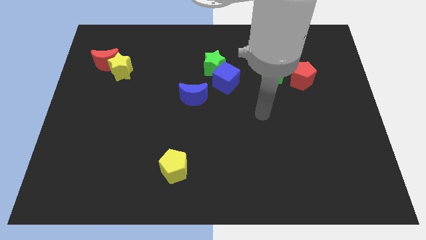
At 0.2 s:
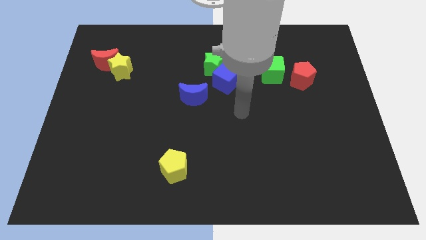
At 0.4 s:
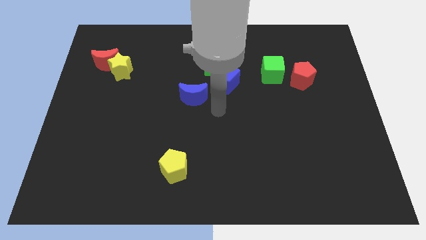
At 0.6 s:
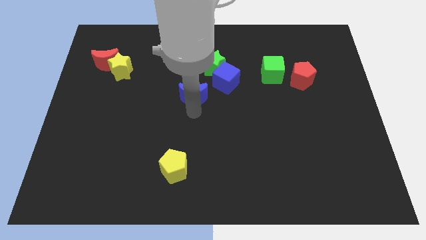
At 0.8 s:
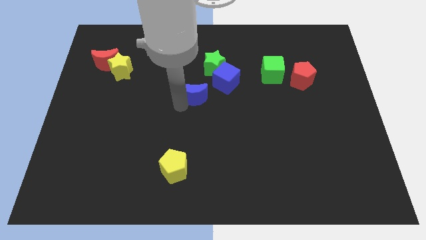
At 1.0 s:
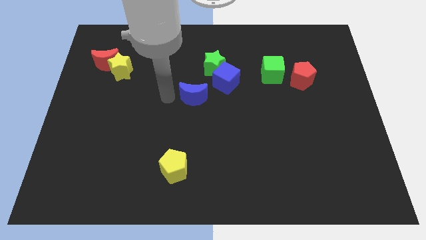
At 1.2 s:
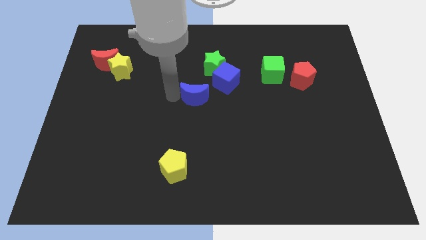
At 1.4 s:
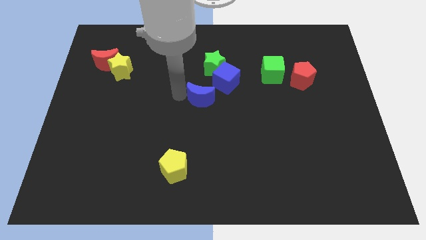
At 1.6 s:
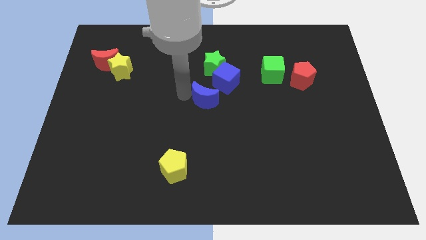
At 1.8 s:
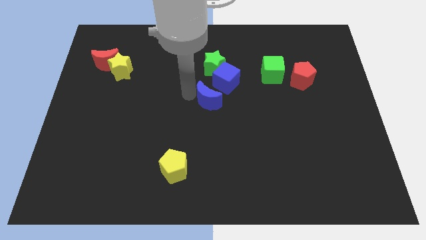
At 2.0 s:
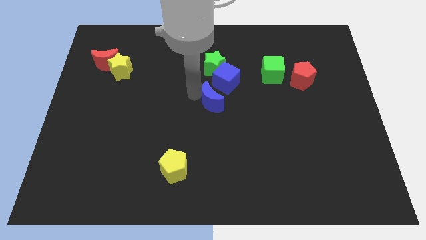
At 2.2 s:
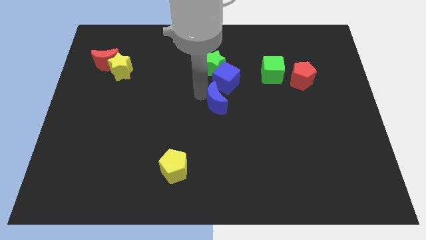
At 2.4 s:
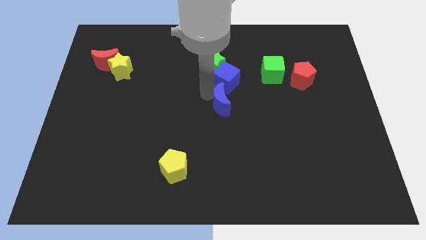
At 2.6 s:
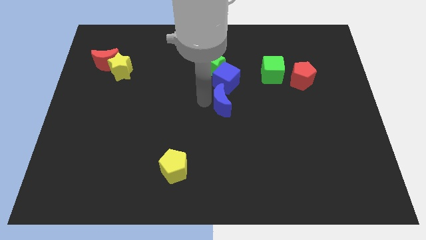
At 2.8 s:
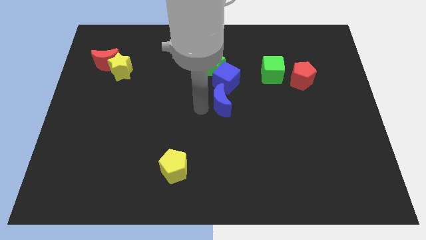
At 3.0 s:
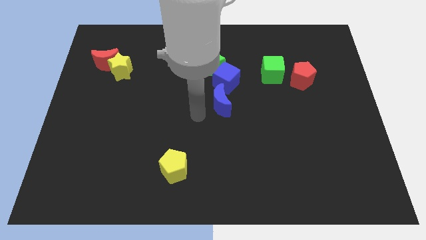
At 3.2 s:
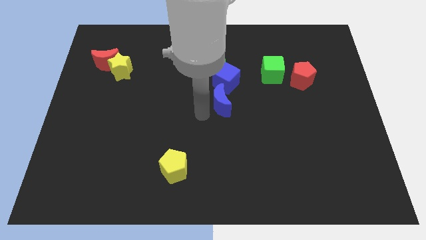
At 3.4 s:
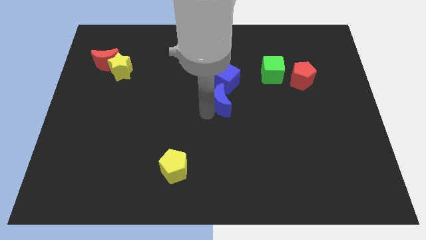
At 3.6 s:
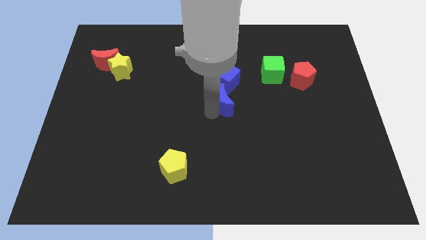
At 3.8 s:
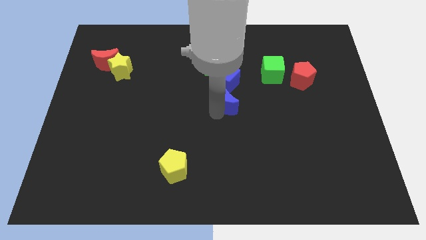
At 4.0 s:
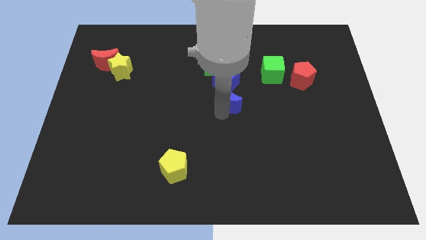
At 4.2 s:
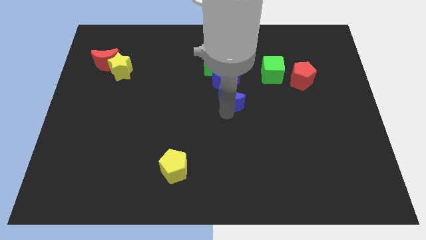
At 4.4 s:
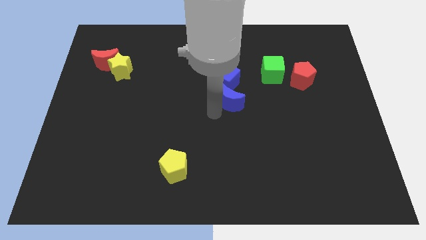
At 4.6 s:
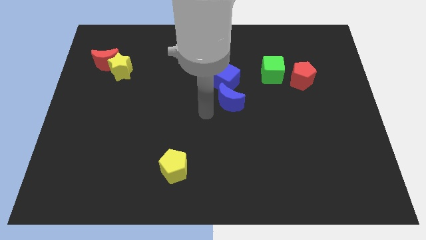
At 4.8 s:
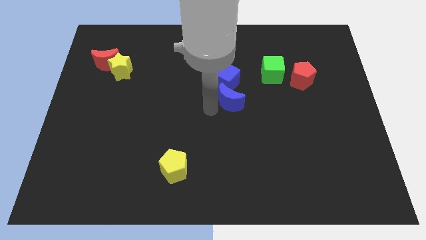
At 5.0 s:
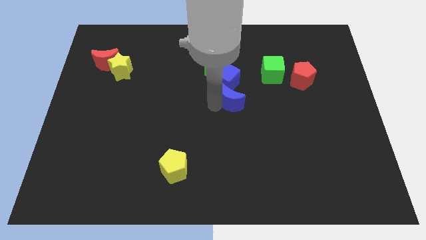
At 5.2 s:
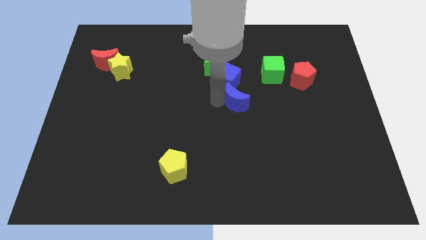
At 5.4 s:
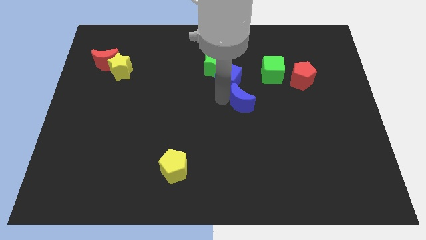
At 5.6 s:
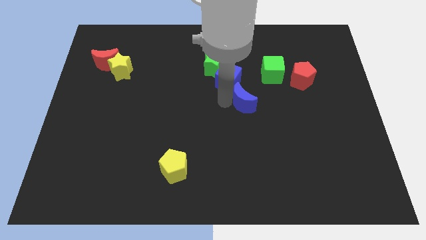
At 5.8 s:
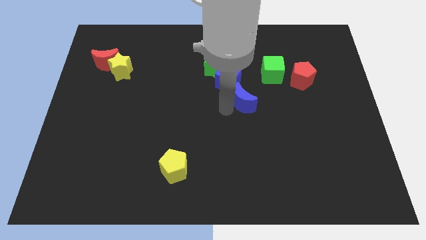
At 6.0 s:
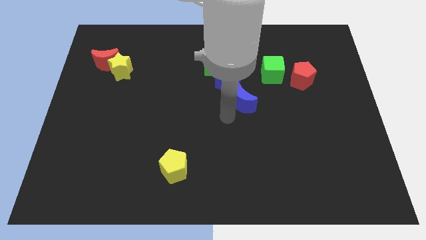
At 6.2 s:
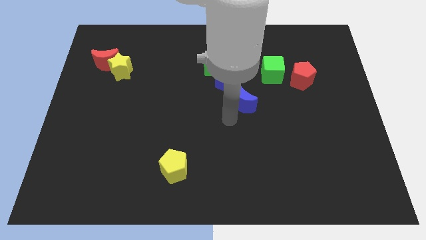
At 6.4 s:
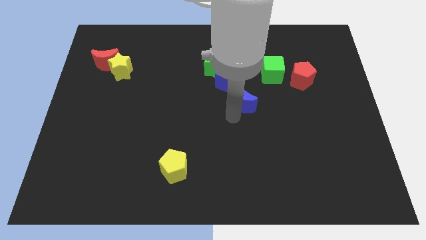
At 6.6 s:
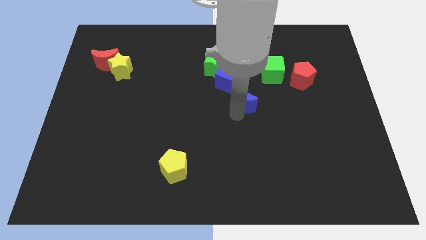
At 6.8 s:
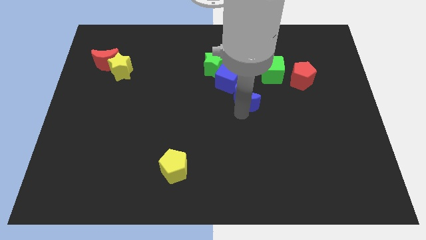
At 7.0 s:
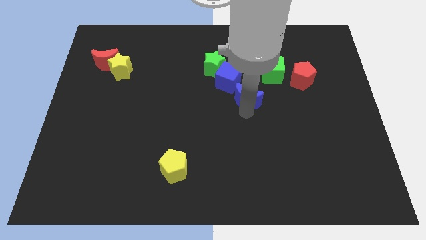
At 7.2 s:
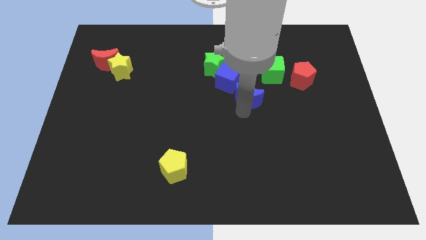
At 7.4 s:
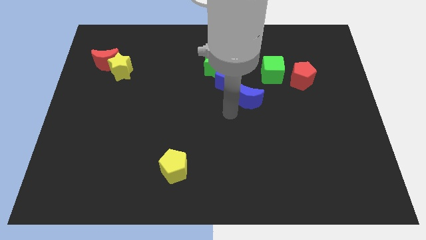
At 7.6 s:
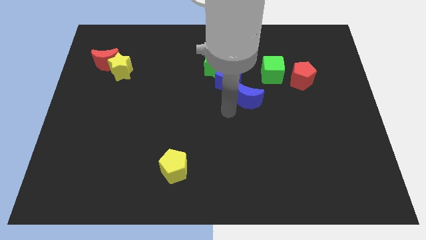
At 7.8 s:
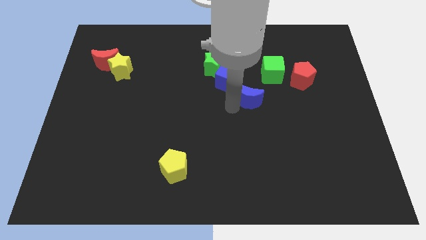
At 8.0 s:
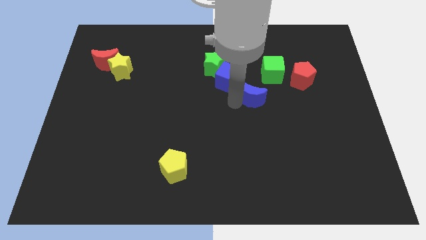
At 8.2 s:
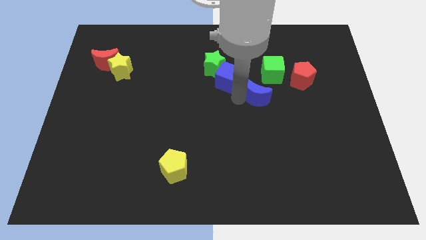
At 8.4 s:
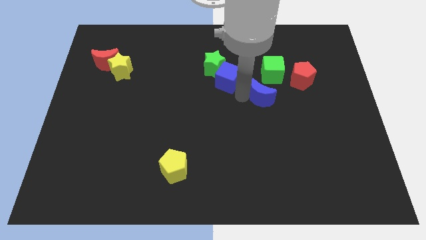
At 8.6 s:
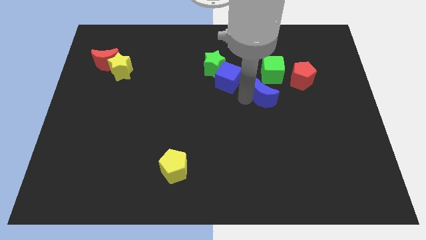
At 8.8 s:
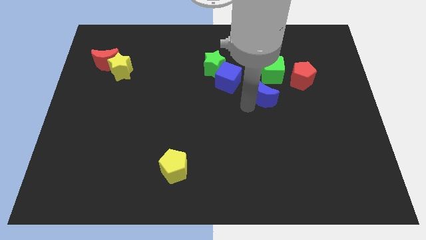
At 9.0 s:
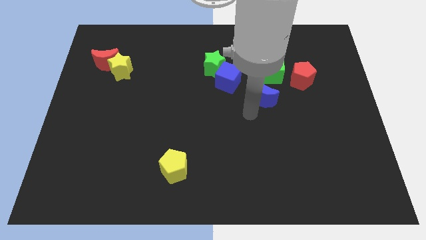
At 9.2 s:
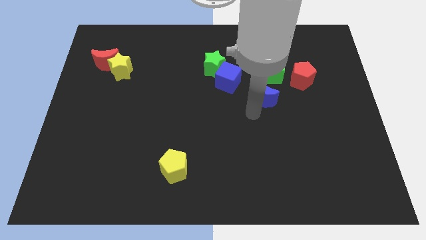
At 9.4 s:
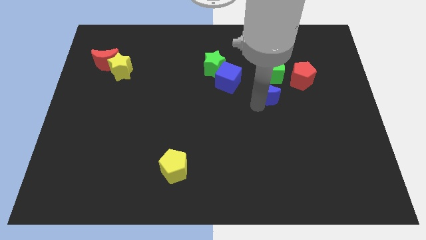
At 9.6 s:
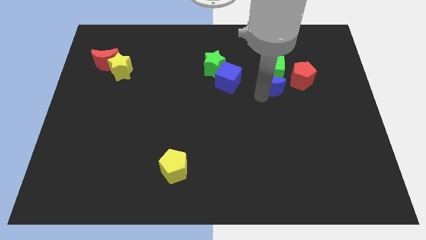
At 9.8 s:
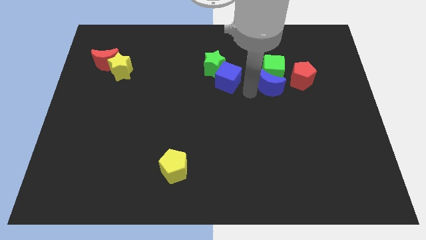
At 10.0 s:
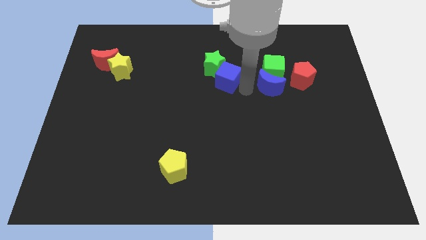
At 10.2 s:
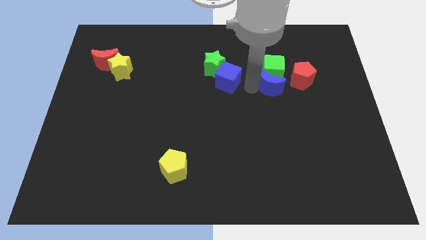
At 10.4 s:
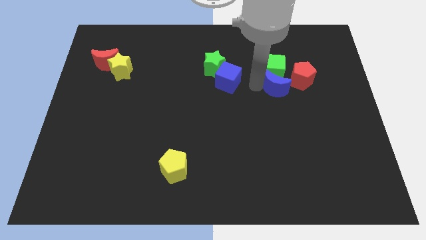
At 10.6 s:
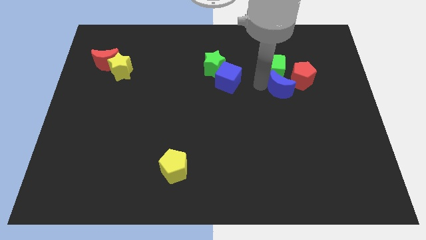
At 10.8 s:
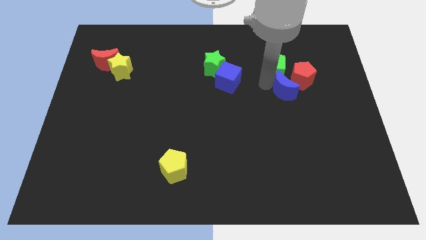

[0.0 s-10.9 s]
put the blue moon close to the red pentagon

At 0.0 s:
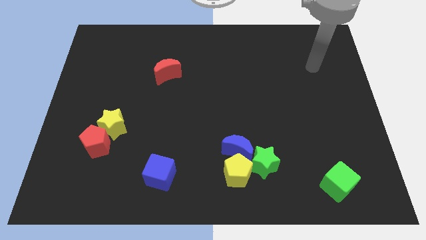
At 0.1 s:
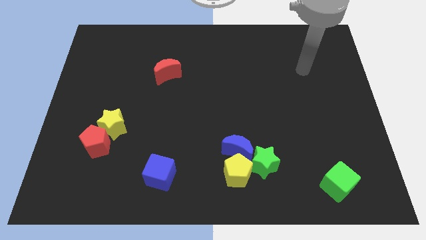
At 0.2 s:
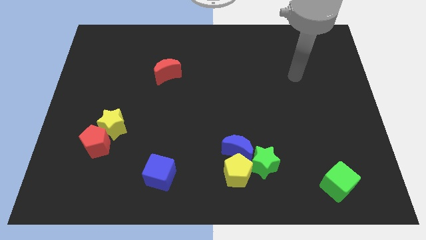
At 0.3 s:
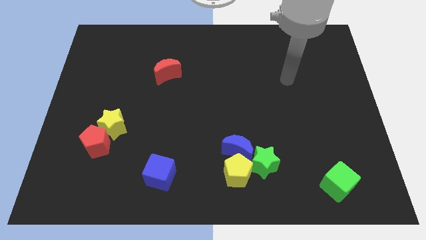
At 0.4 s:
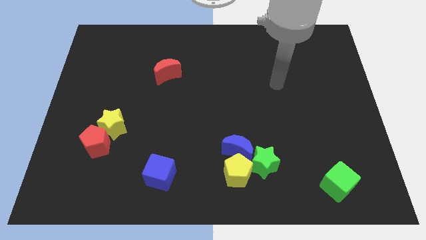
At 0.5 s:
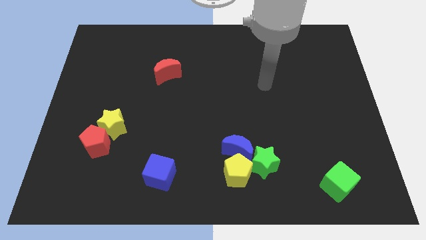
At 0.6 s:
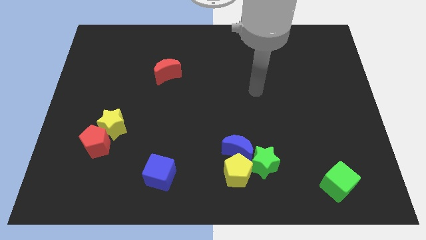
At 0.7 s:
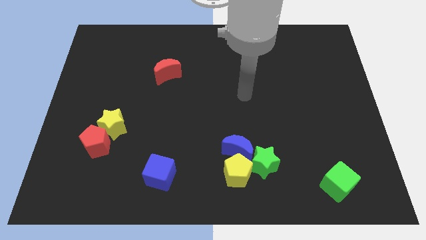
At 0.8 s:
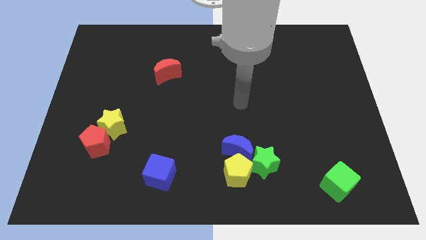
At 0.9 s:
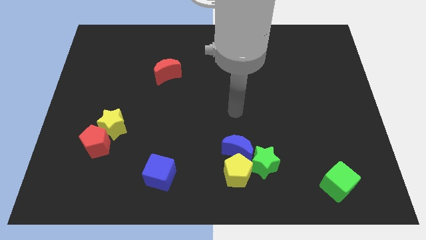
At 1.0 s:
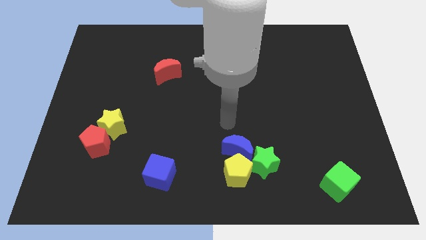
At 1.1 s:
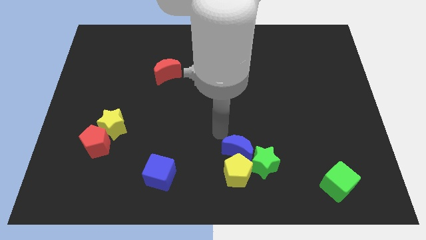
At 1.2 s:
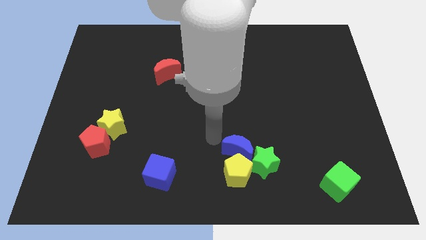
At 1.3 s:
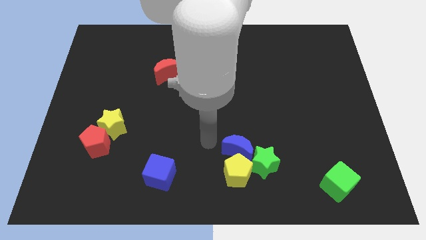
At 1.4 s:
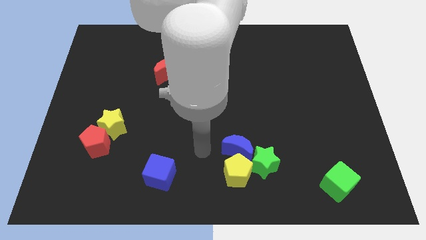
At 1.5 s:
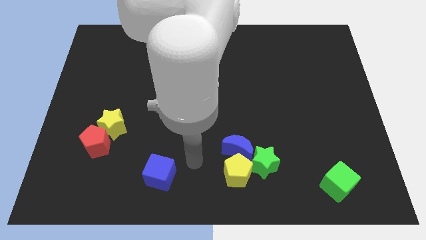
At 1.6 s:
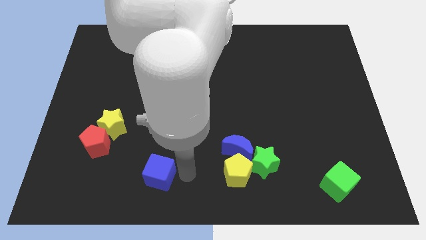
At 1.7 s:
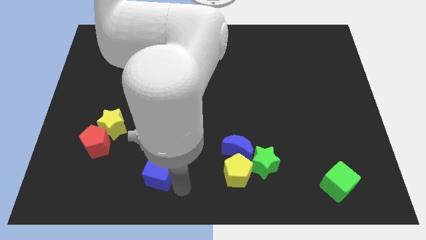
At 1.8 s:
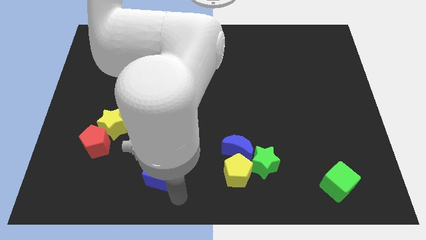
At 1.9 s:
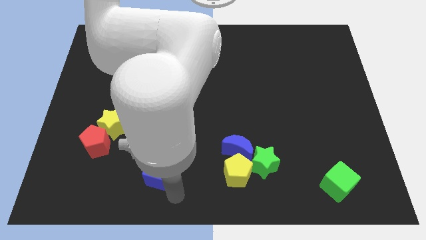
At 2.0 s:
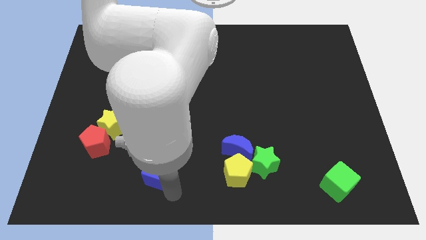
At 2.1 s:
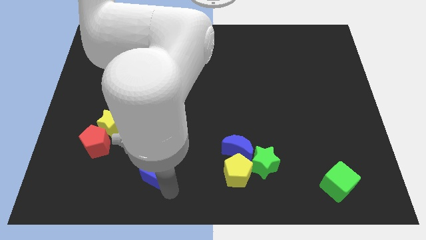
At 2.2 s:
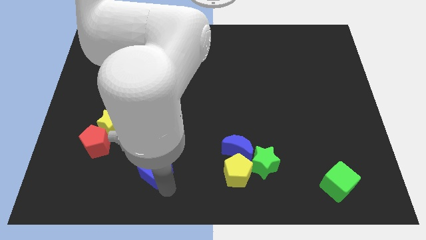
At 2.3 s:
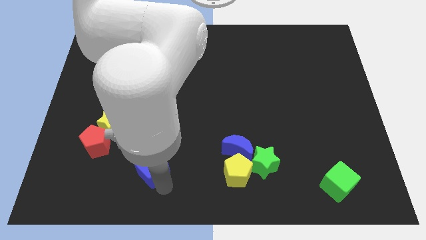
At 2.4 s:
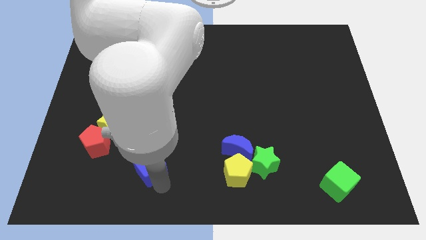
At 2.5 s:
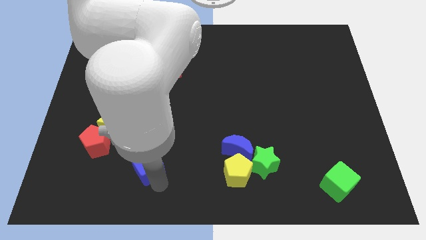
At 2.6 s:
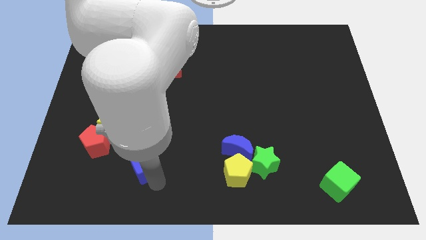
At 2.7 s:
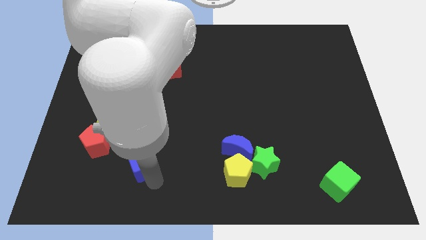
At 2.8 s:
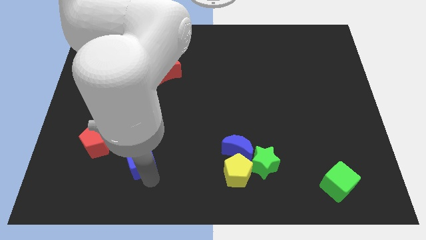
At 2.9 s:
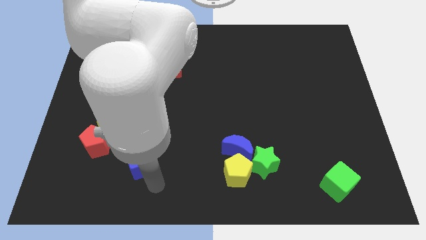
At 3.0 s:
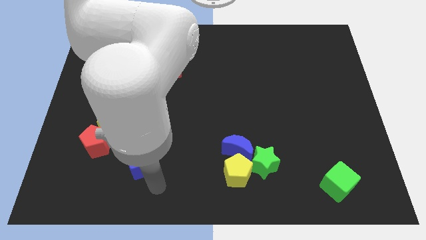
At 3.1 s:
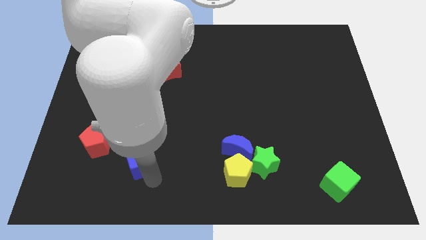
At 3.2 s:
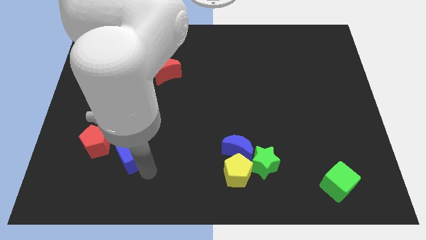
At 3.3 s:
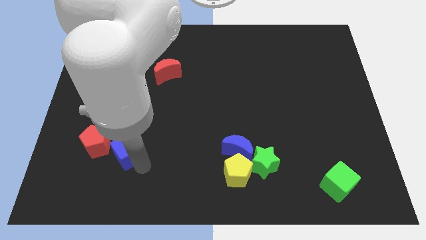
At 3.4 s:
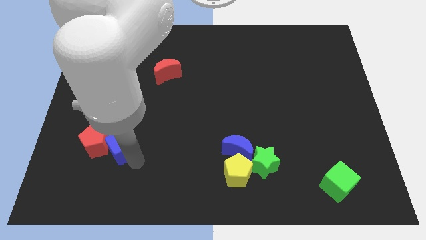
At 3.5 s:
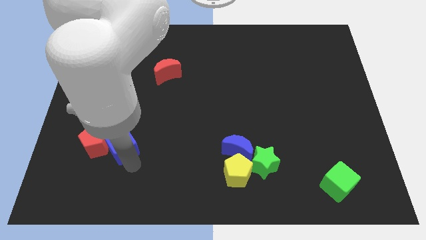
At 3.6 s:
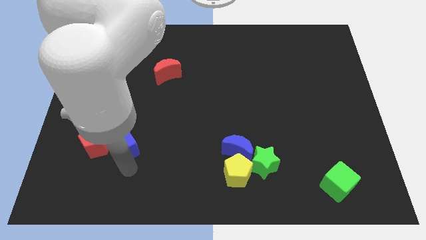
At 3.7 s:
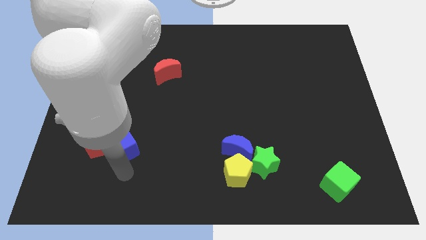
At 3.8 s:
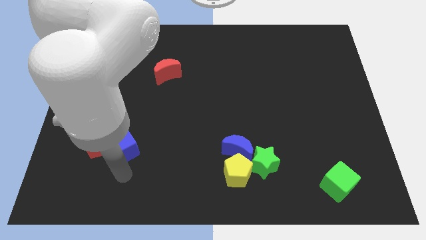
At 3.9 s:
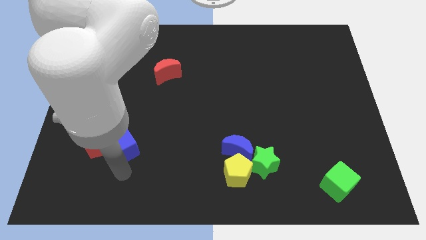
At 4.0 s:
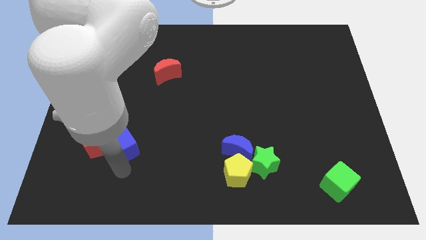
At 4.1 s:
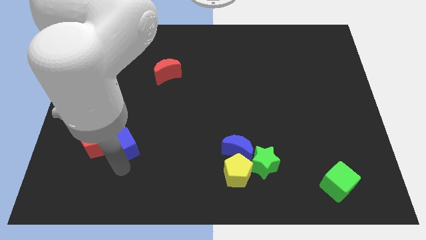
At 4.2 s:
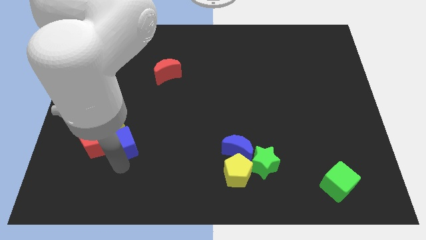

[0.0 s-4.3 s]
slide the blue cube to the yellow star
